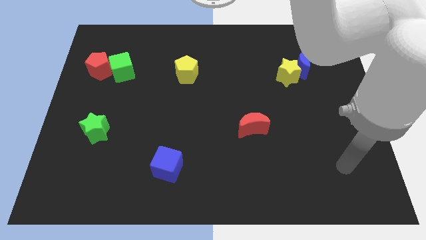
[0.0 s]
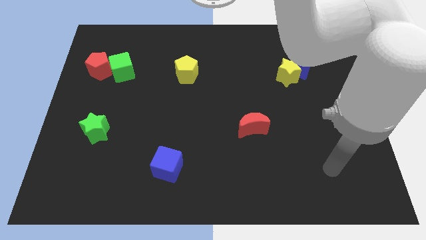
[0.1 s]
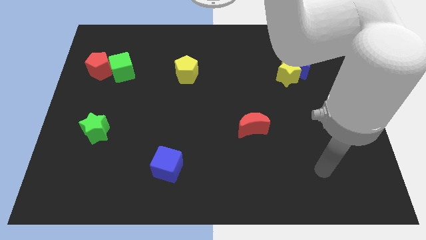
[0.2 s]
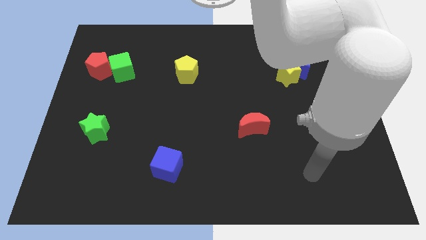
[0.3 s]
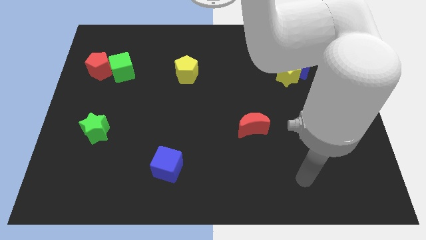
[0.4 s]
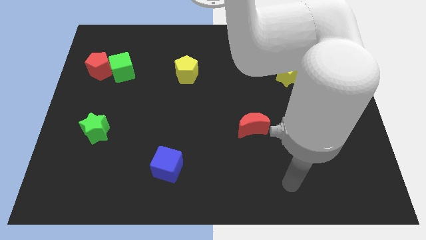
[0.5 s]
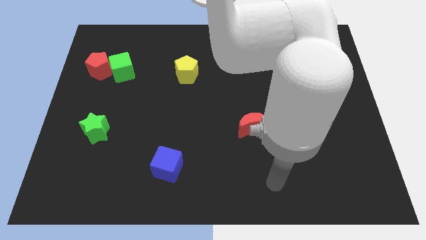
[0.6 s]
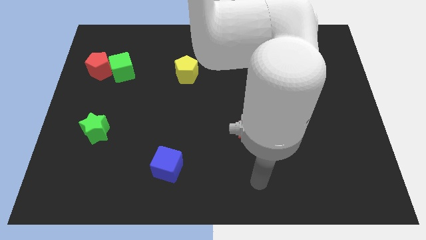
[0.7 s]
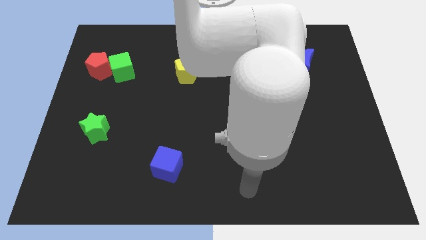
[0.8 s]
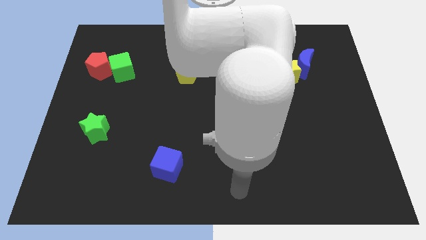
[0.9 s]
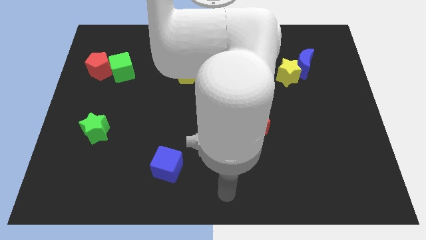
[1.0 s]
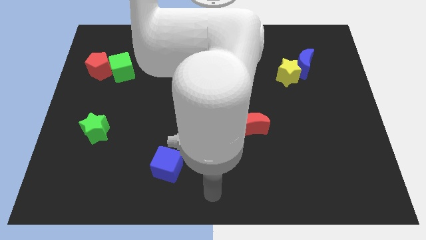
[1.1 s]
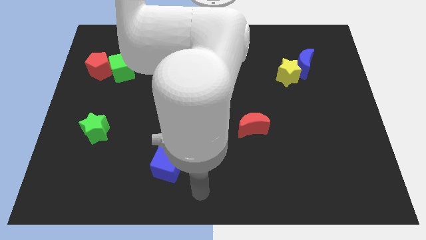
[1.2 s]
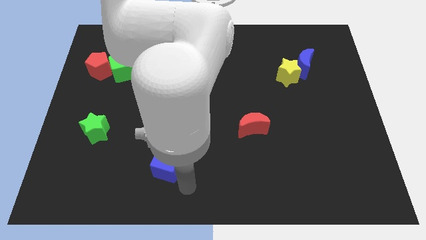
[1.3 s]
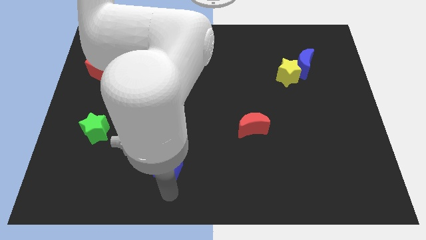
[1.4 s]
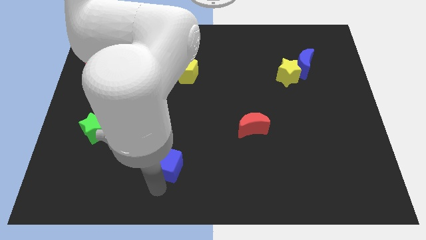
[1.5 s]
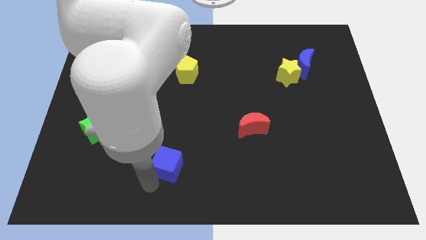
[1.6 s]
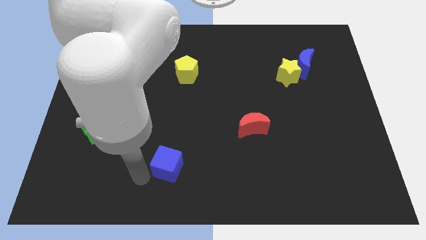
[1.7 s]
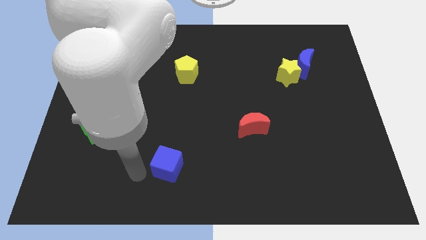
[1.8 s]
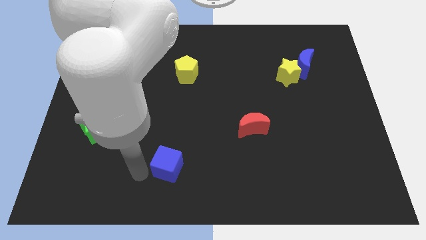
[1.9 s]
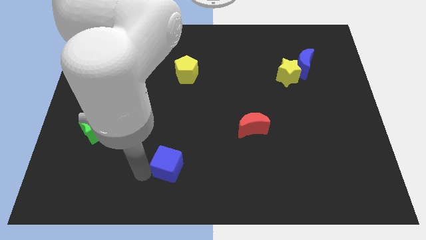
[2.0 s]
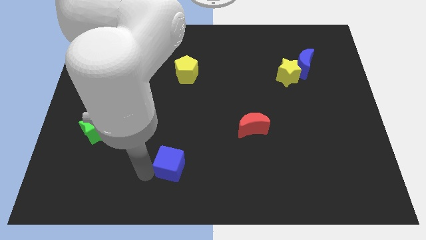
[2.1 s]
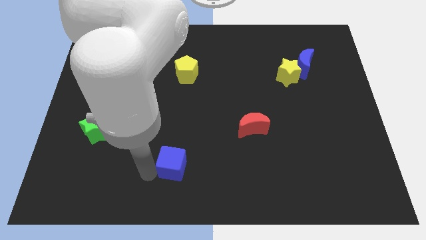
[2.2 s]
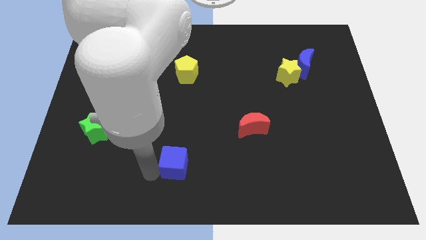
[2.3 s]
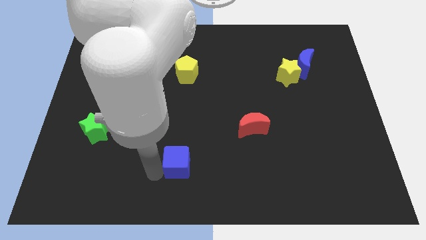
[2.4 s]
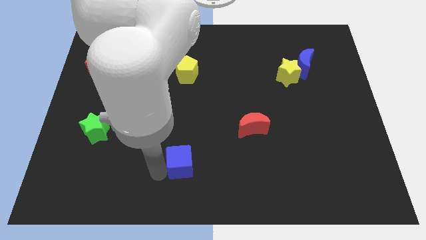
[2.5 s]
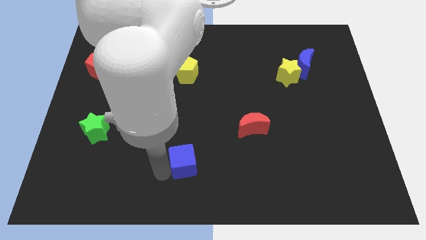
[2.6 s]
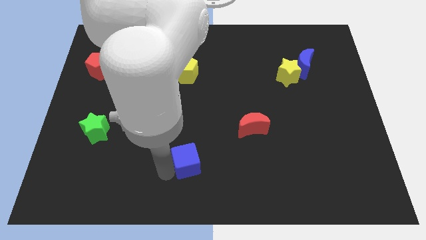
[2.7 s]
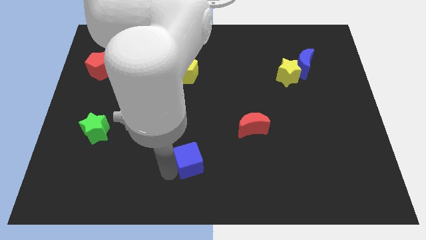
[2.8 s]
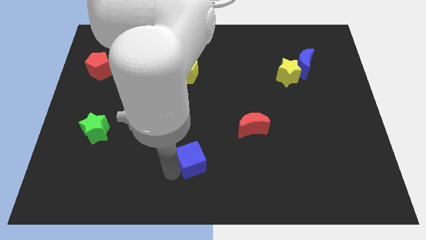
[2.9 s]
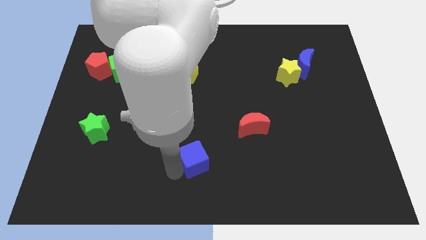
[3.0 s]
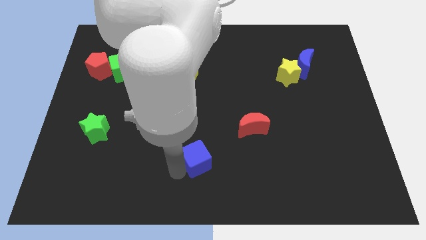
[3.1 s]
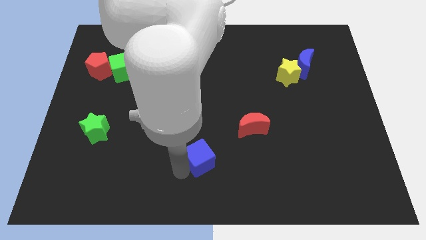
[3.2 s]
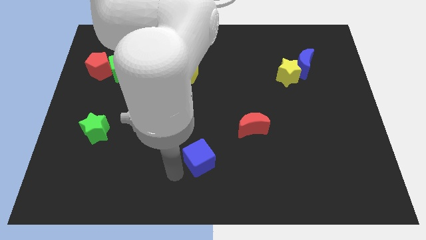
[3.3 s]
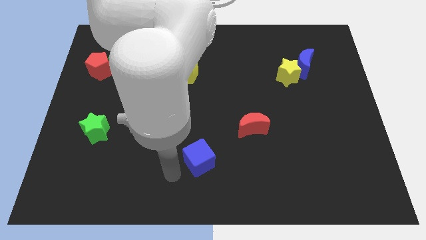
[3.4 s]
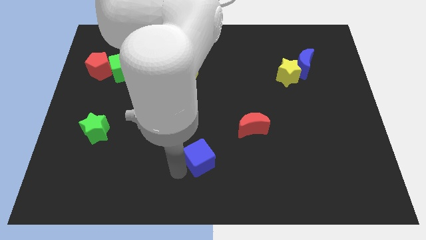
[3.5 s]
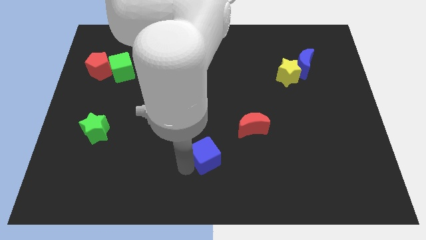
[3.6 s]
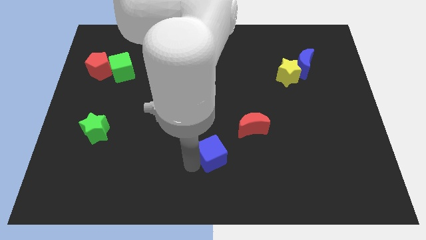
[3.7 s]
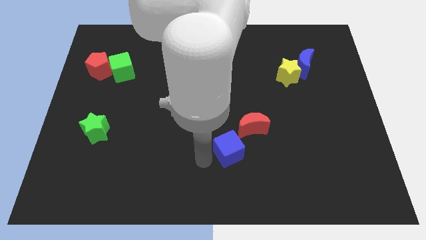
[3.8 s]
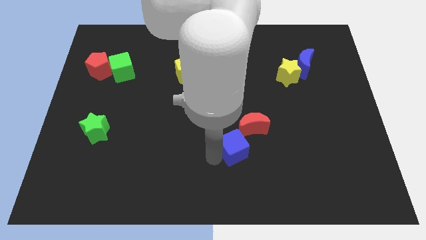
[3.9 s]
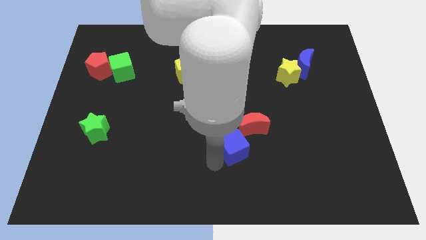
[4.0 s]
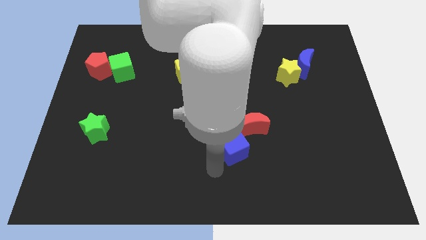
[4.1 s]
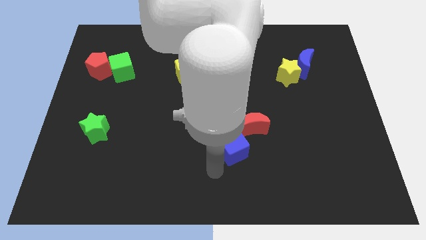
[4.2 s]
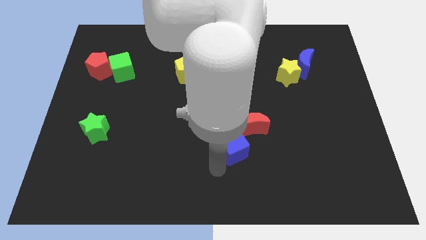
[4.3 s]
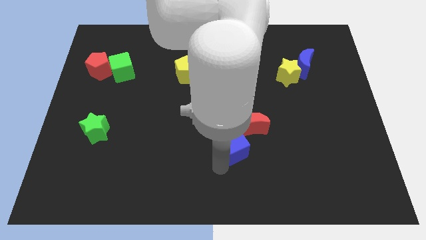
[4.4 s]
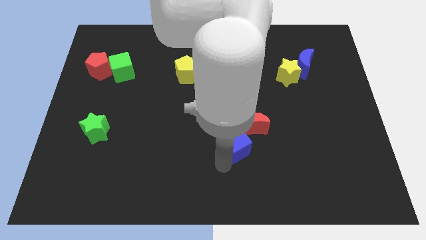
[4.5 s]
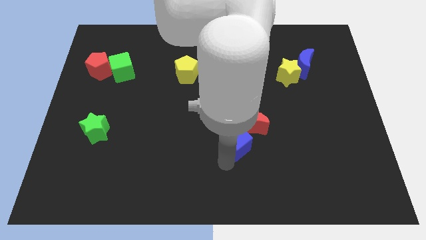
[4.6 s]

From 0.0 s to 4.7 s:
slide the blue cube towards the red moon

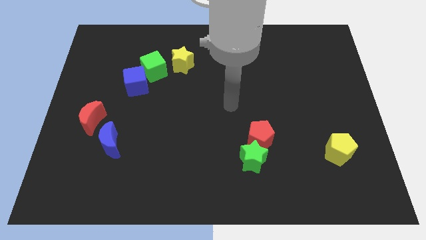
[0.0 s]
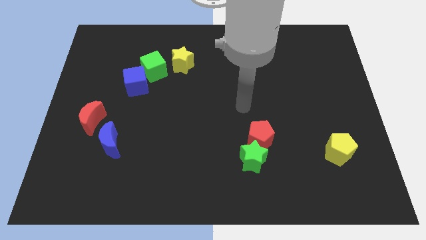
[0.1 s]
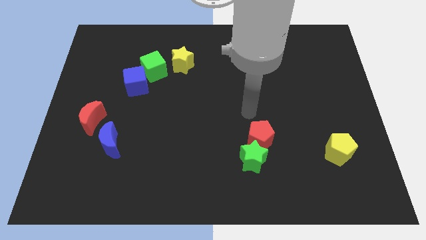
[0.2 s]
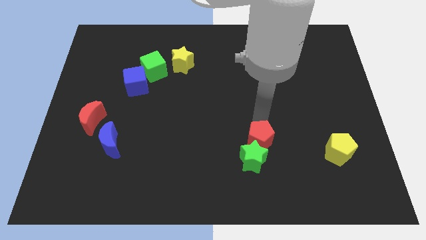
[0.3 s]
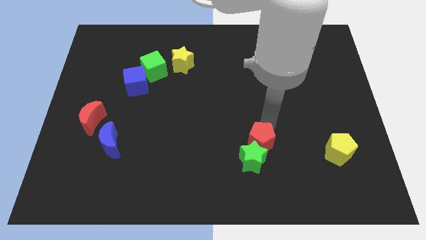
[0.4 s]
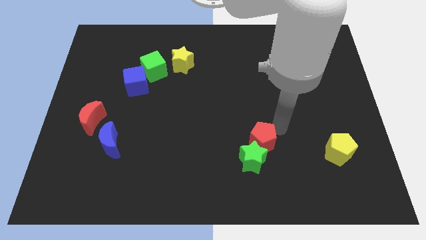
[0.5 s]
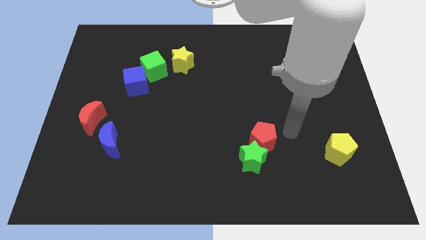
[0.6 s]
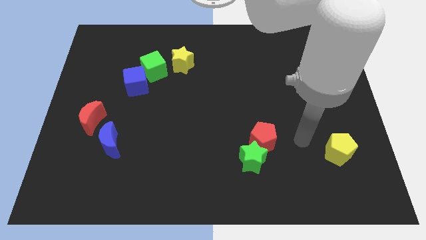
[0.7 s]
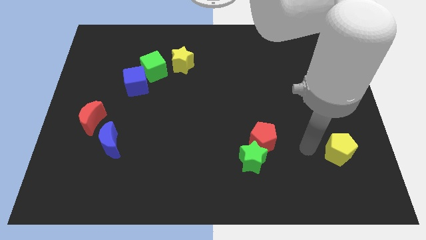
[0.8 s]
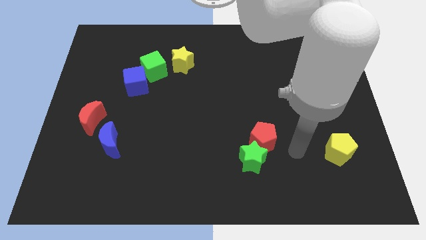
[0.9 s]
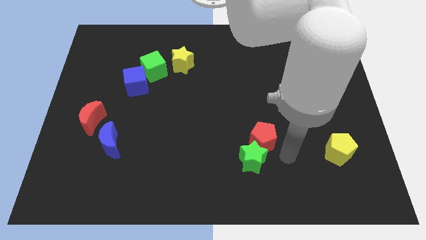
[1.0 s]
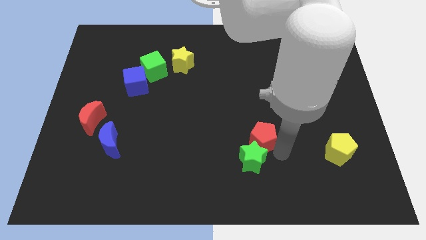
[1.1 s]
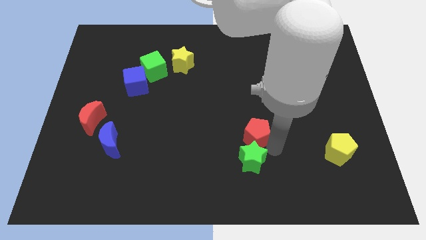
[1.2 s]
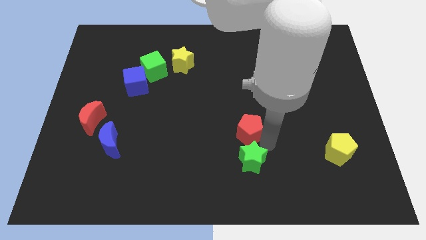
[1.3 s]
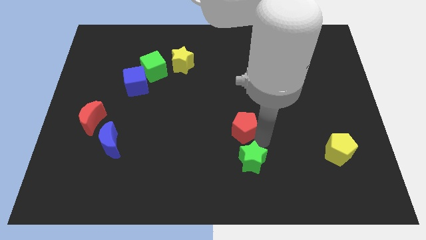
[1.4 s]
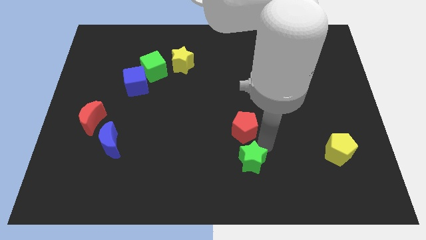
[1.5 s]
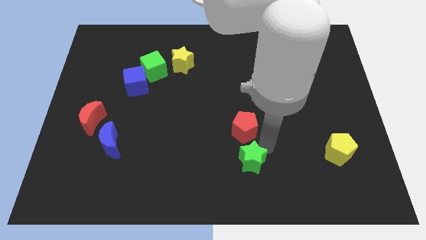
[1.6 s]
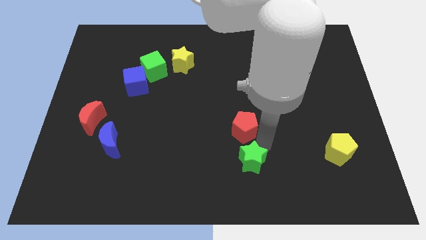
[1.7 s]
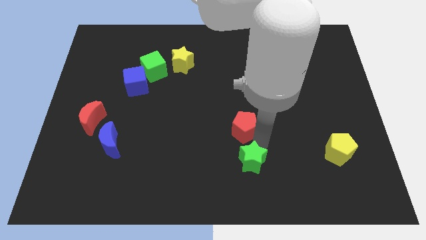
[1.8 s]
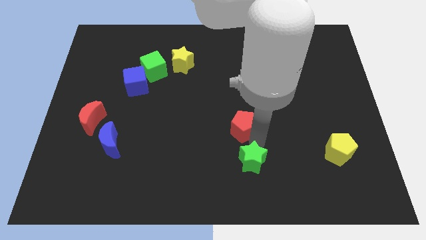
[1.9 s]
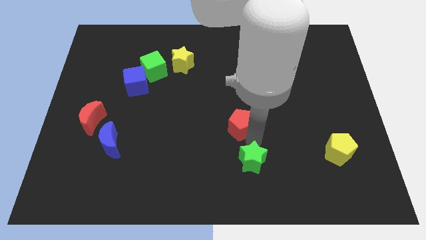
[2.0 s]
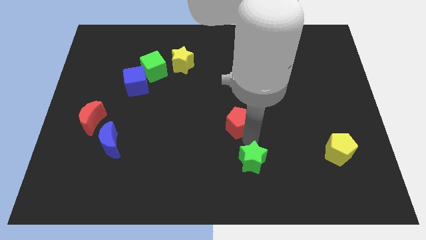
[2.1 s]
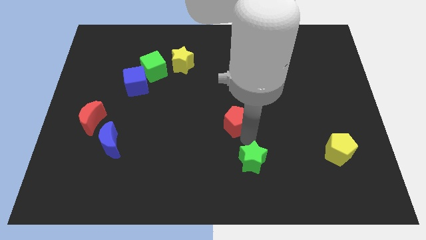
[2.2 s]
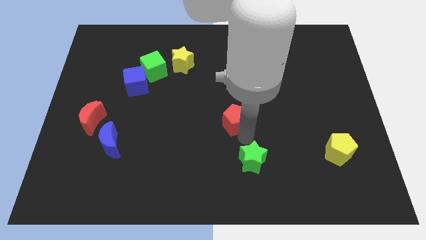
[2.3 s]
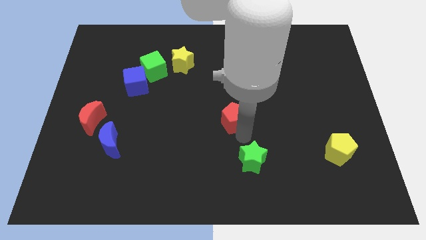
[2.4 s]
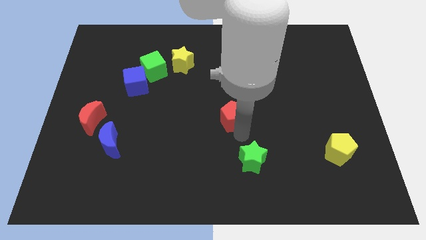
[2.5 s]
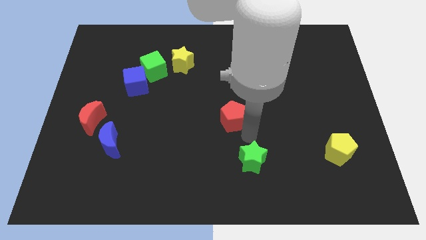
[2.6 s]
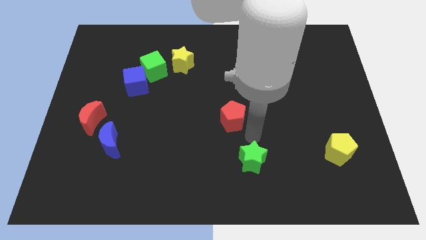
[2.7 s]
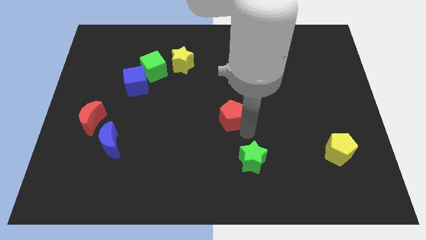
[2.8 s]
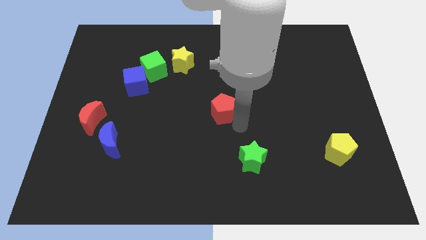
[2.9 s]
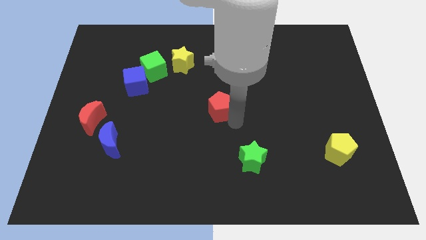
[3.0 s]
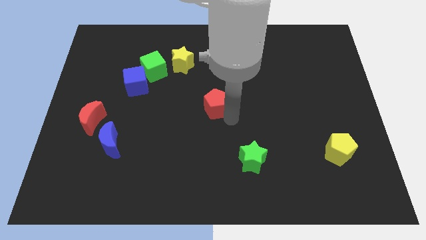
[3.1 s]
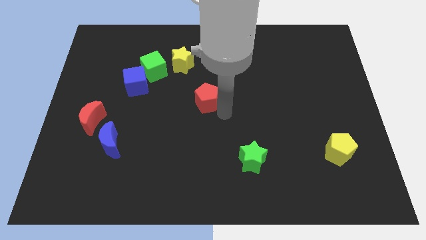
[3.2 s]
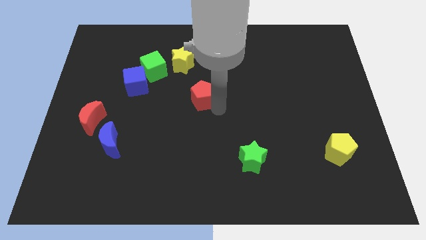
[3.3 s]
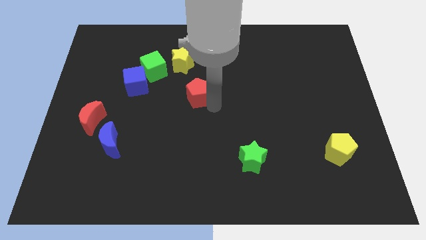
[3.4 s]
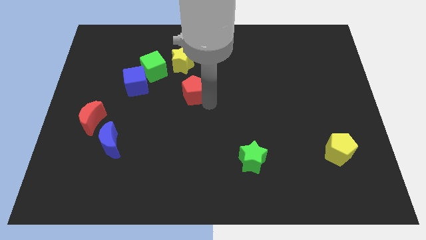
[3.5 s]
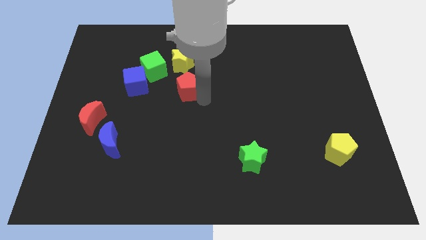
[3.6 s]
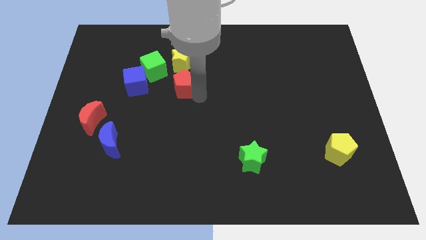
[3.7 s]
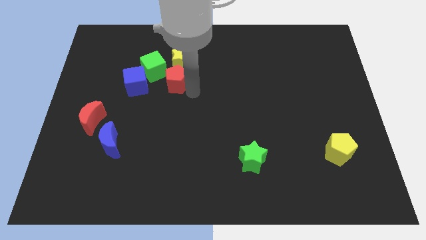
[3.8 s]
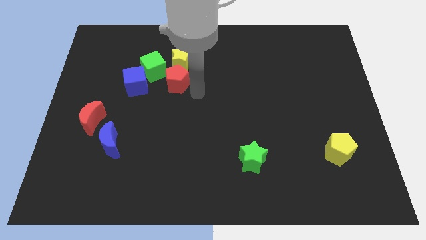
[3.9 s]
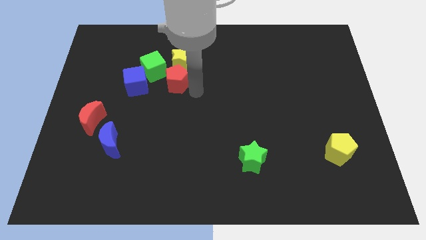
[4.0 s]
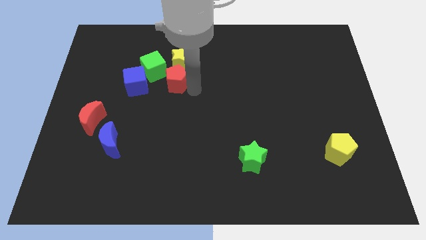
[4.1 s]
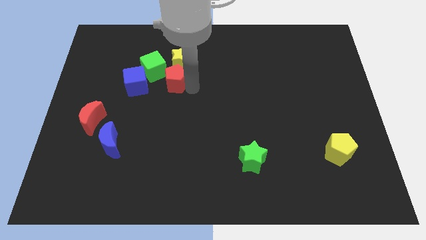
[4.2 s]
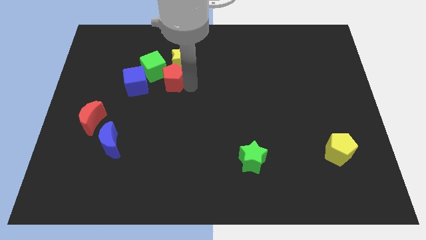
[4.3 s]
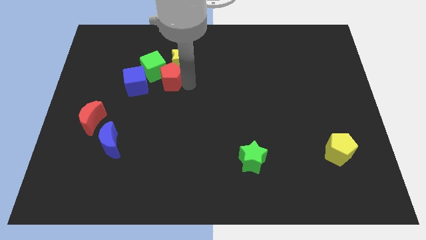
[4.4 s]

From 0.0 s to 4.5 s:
slide the red pentagon next to the green cube
